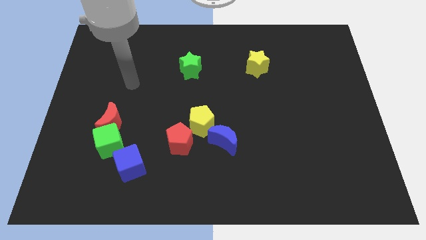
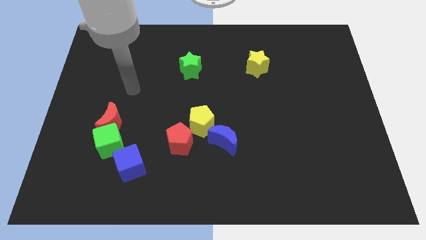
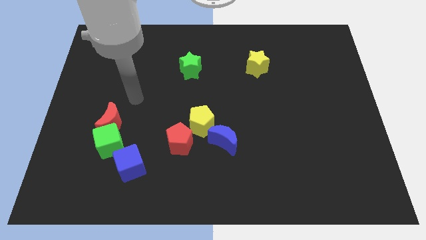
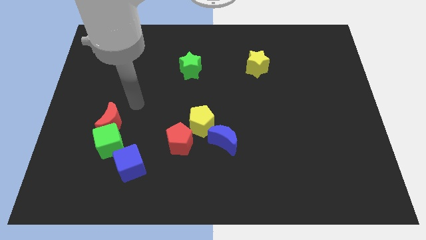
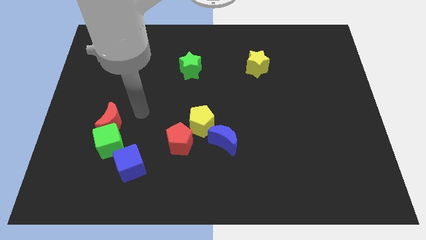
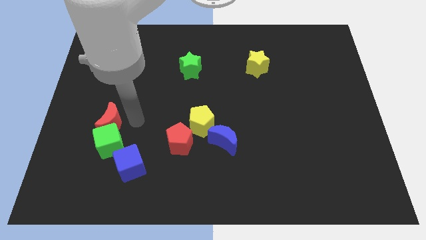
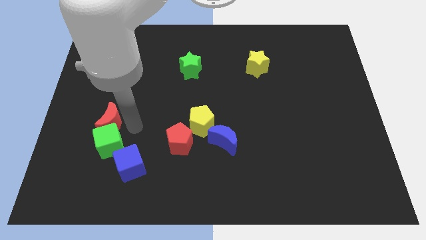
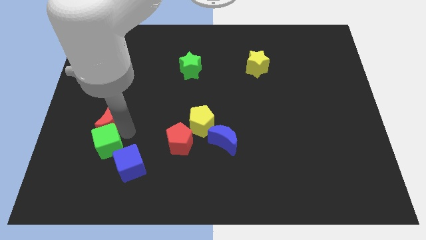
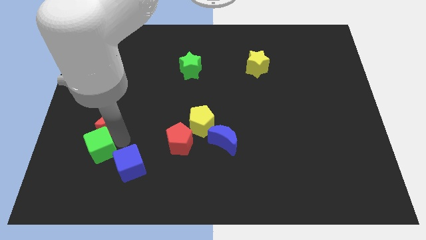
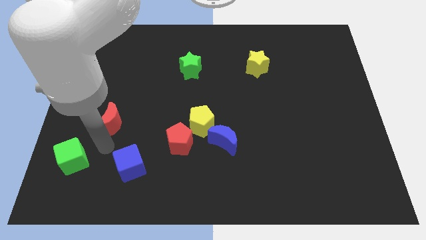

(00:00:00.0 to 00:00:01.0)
separate the red moon from the green cube

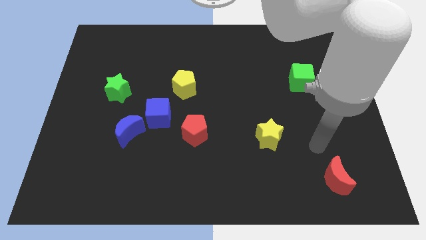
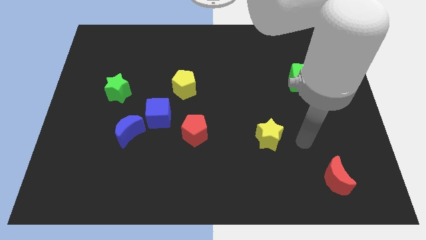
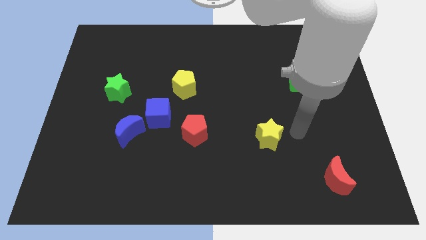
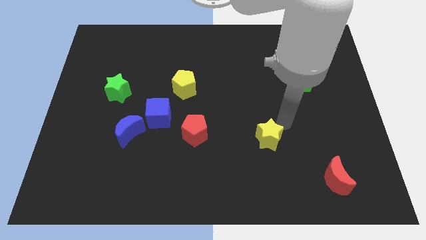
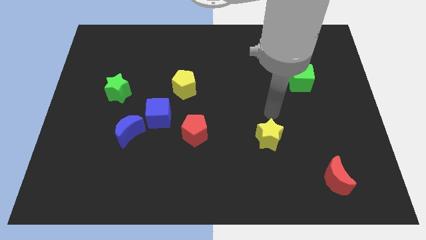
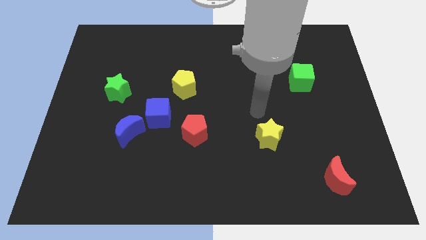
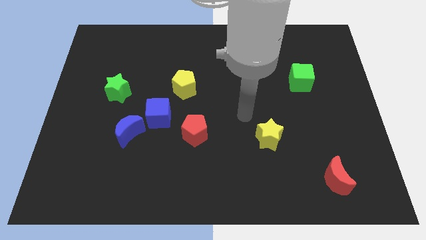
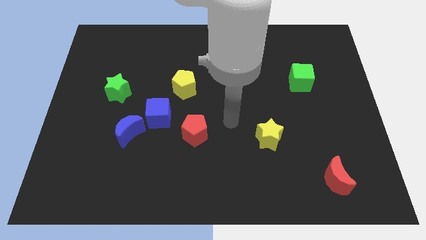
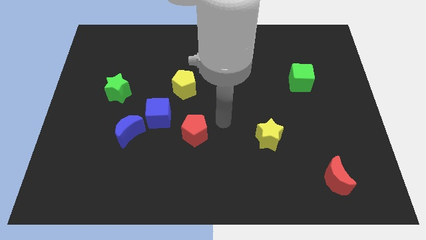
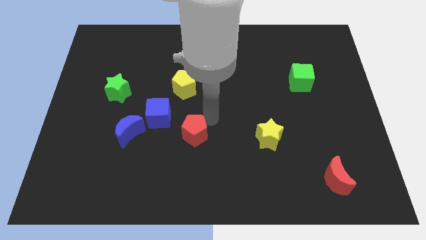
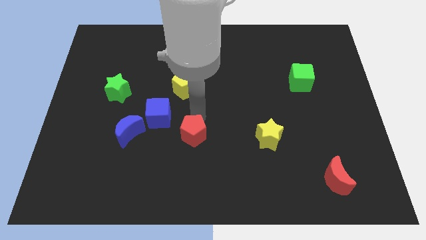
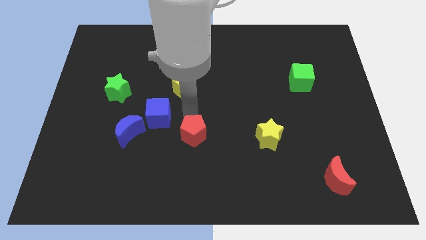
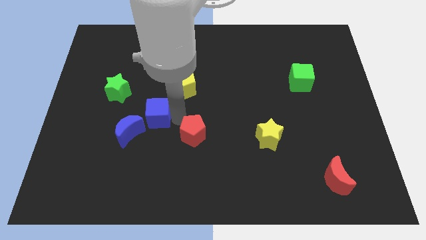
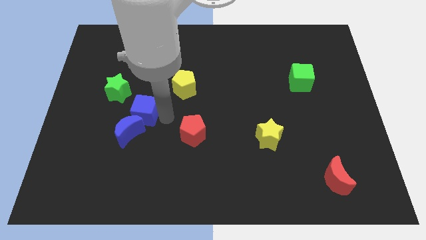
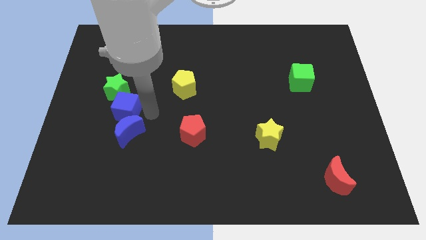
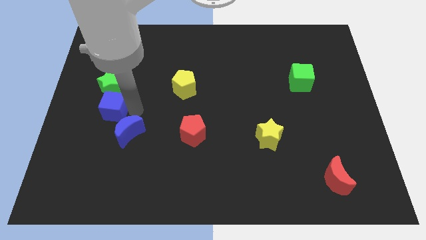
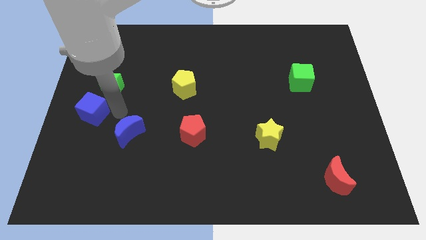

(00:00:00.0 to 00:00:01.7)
move the blue moon away from the blue cube

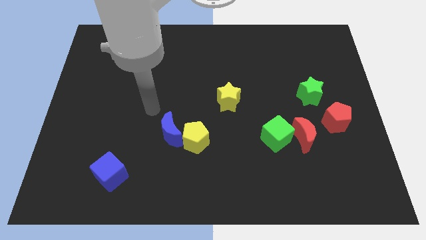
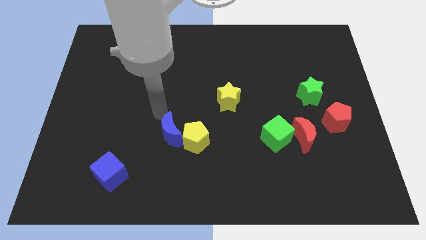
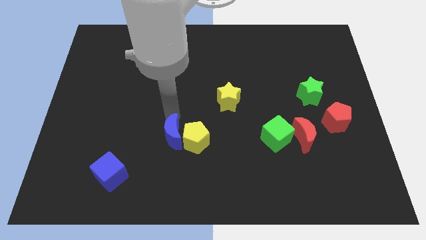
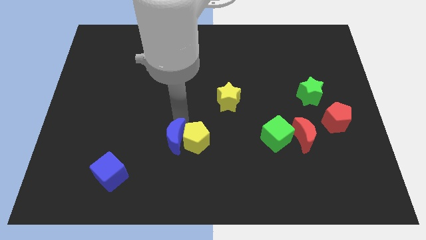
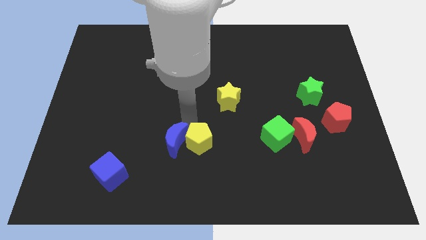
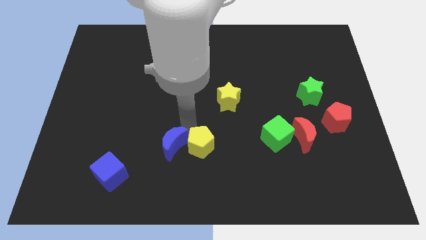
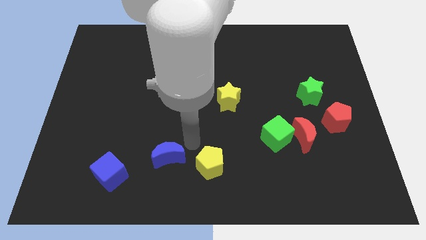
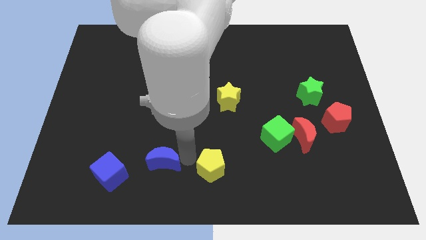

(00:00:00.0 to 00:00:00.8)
pull the blue moon apart from the yellow pentagon

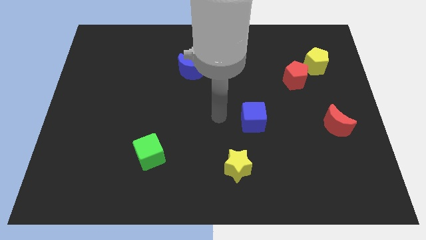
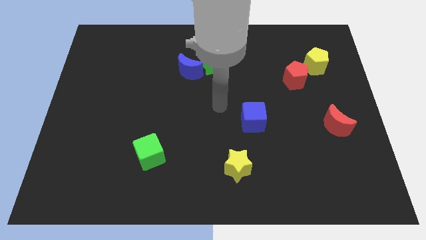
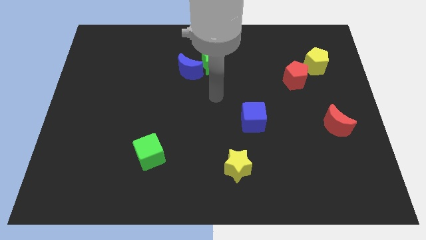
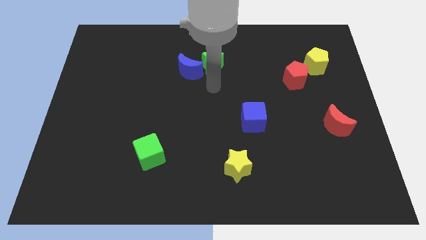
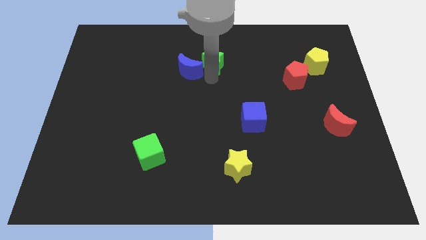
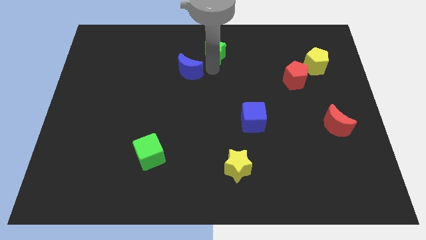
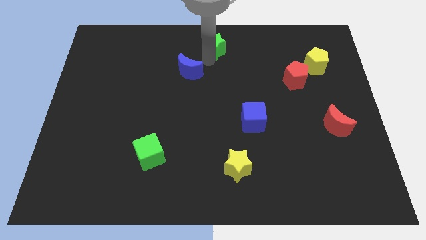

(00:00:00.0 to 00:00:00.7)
separate the blue moon from the green star

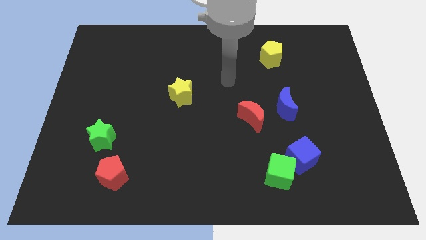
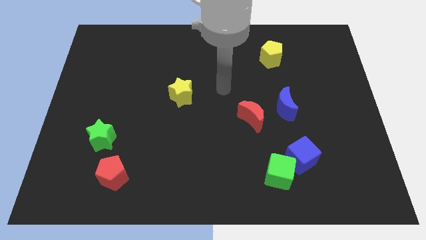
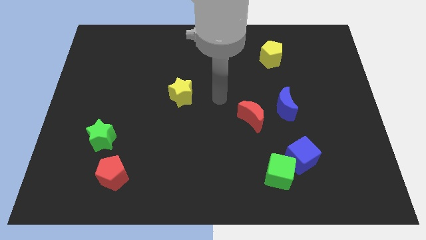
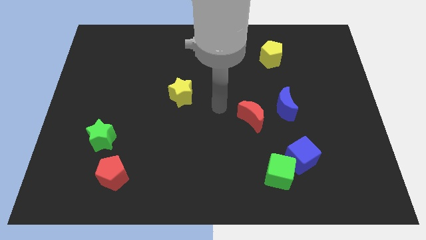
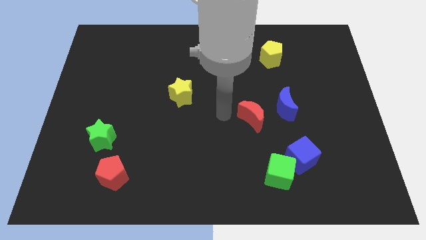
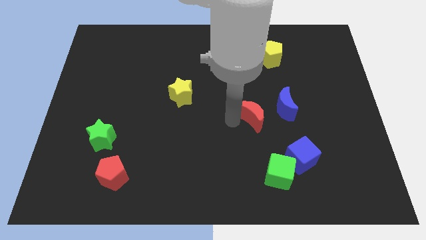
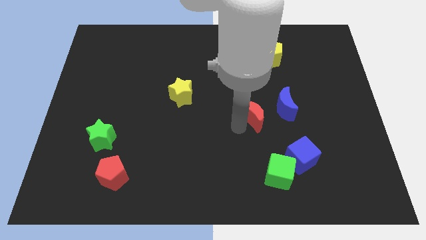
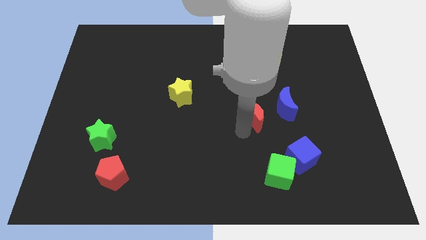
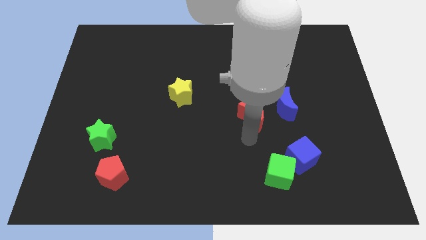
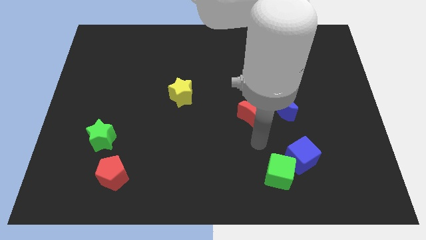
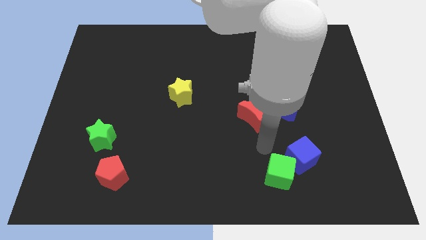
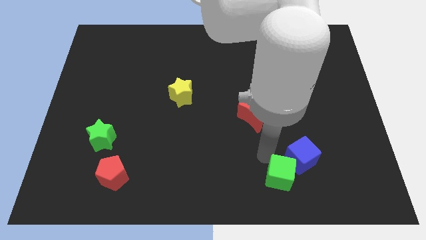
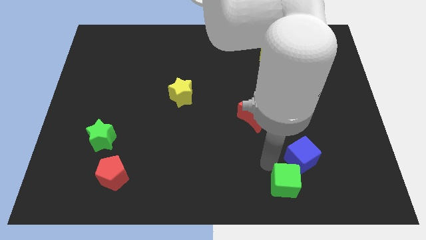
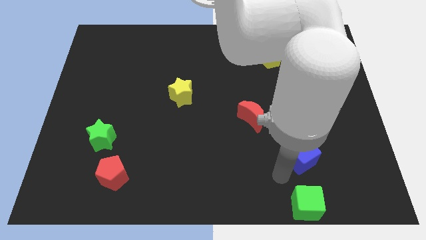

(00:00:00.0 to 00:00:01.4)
separate the blue cube from the green cube

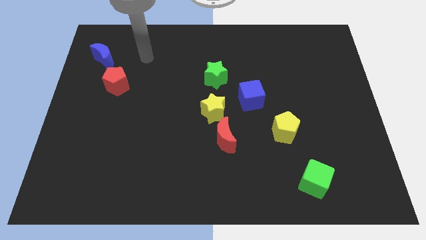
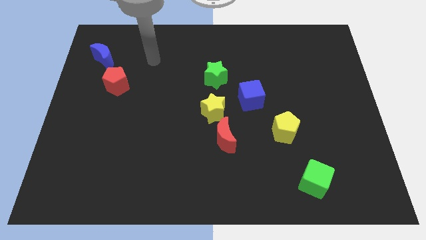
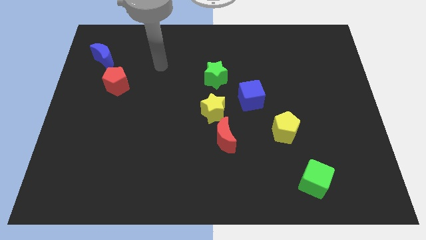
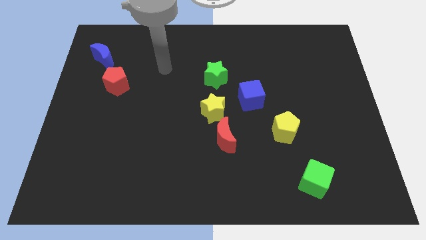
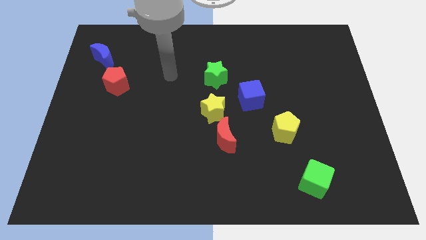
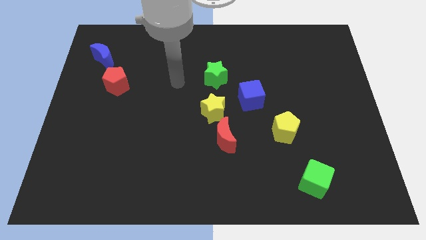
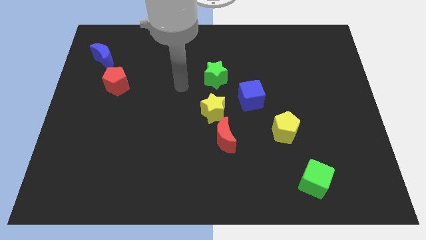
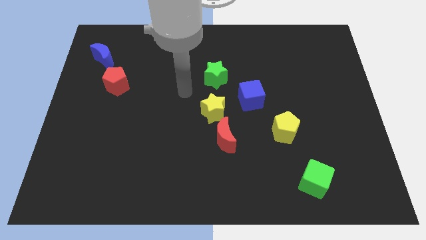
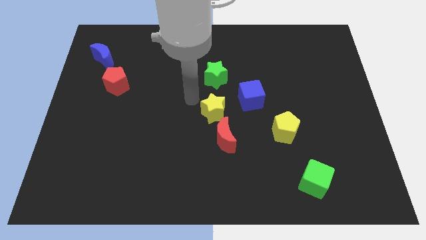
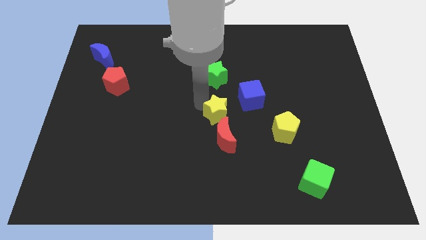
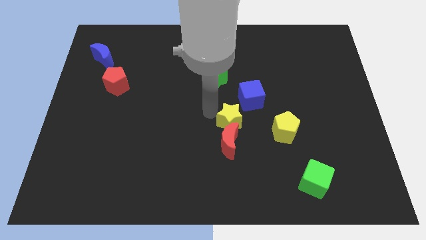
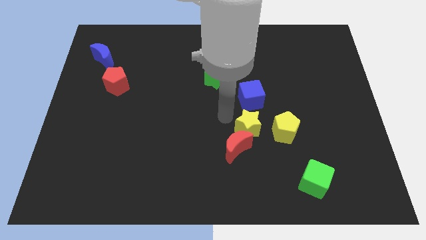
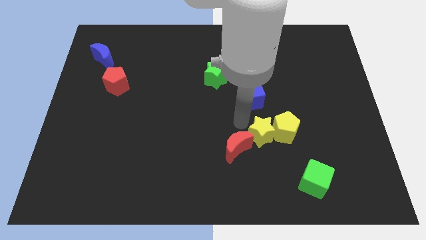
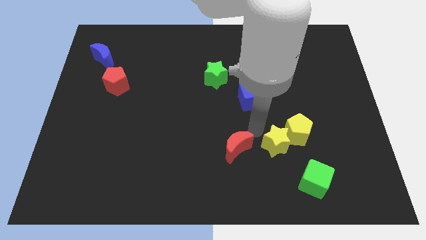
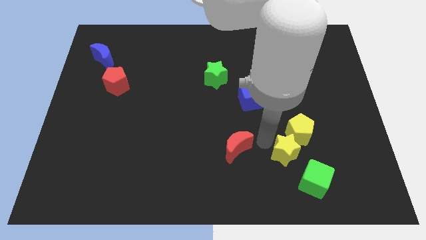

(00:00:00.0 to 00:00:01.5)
pull the red moon apart from the yellow star

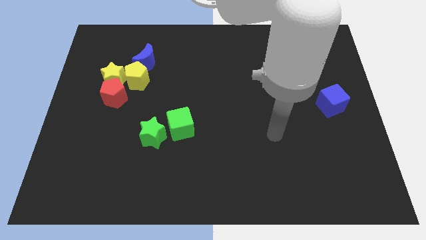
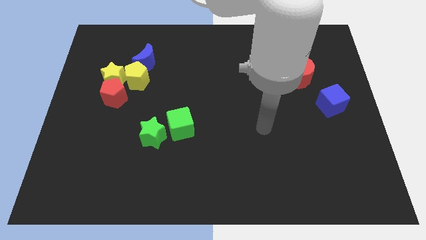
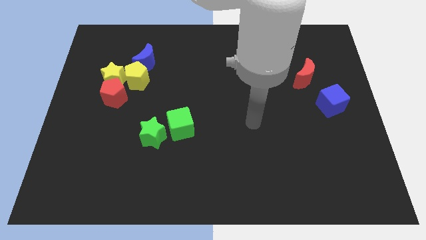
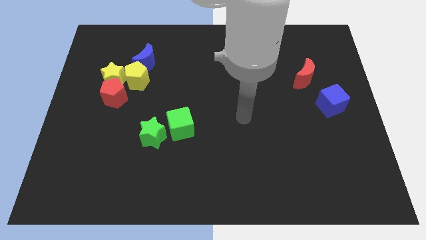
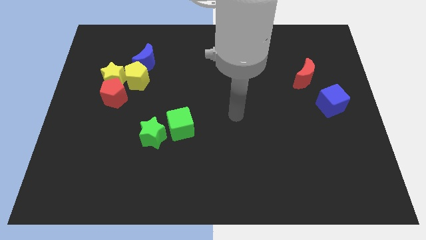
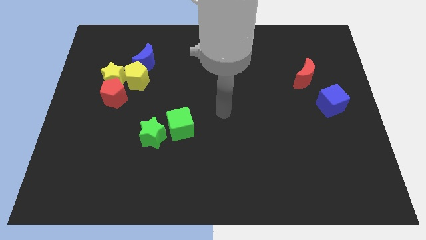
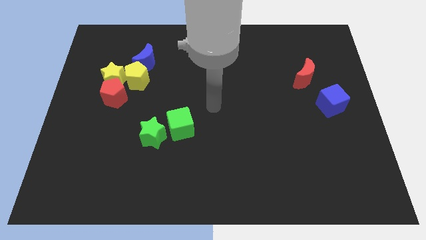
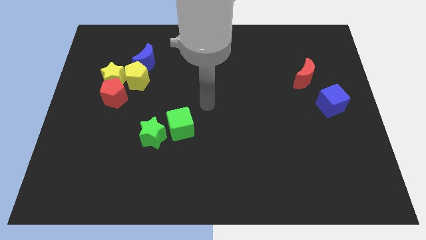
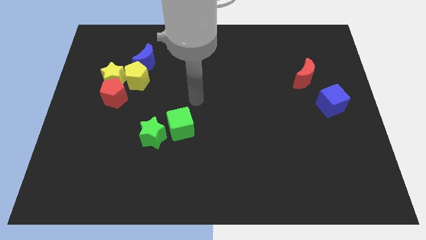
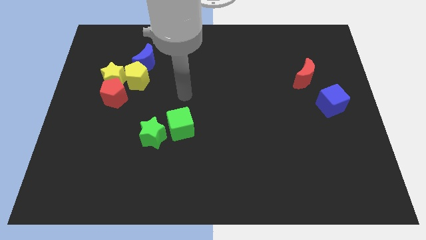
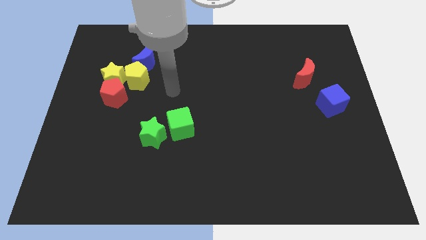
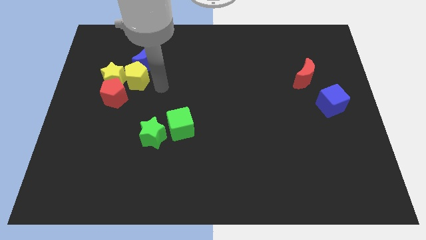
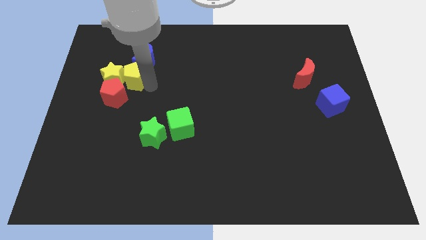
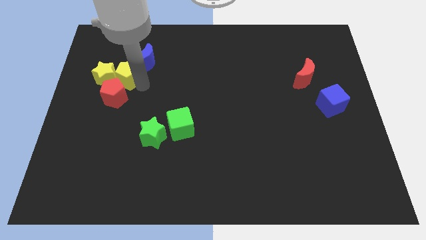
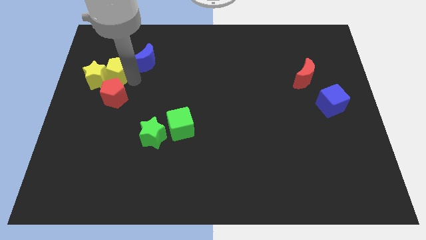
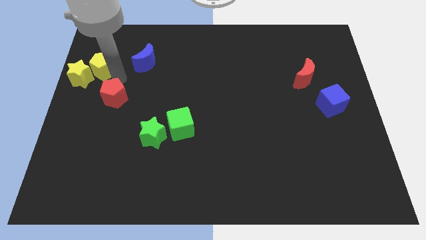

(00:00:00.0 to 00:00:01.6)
pull the red pentagon apart from the yellow star and yellow pentagon

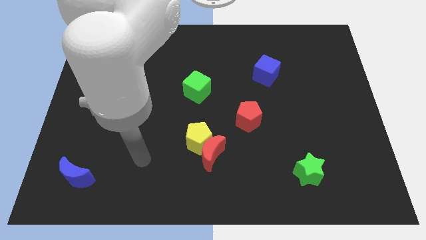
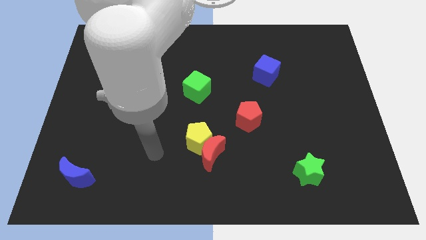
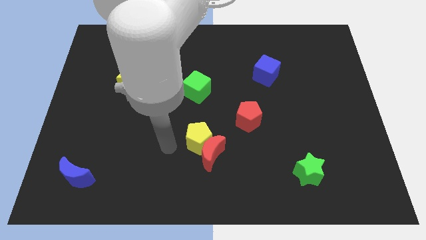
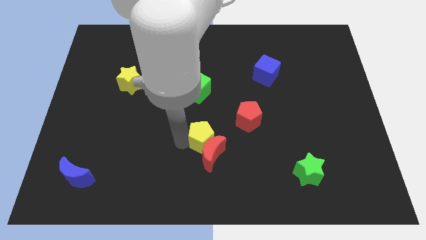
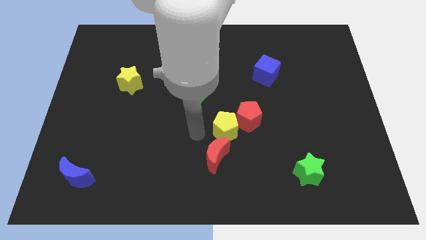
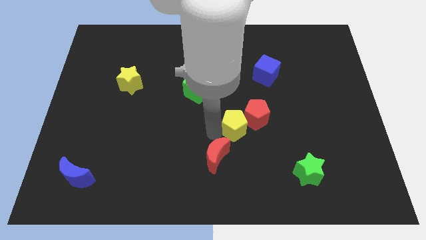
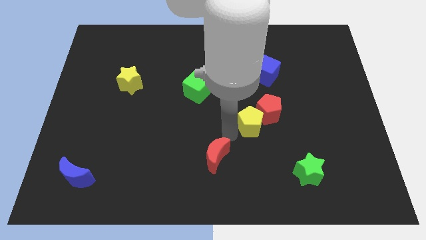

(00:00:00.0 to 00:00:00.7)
move the red moon away from the yellow pentagon

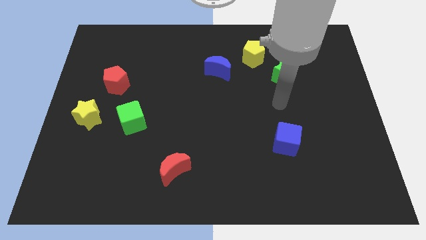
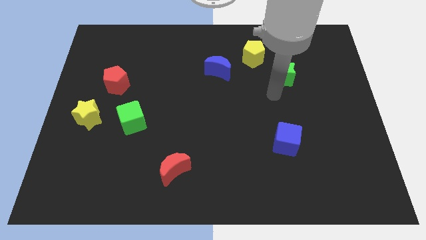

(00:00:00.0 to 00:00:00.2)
separate the green star from the yellow pentagon
